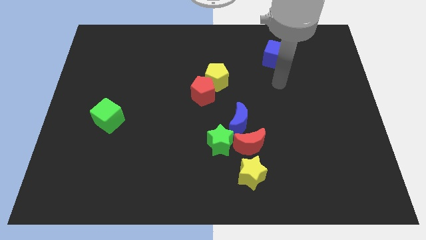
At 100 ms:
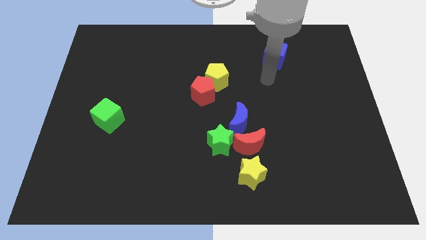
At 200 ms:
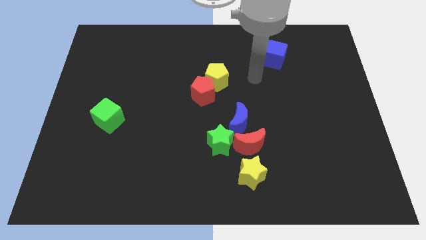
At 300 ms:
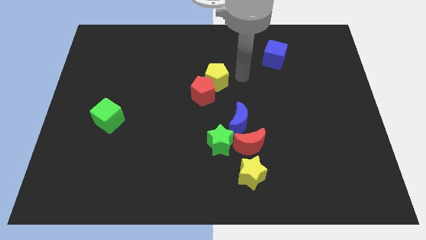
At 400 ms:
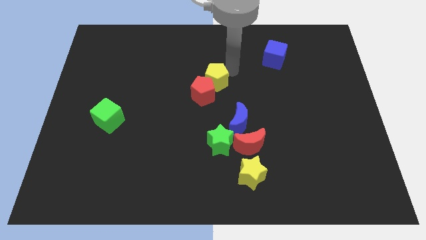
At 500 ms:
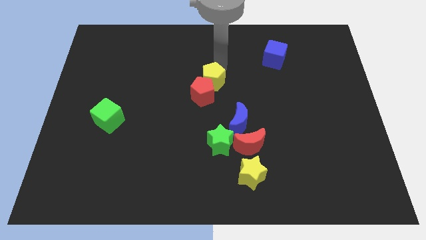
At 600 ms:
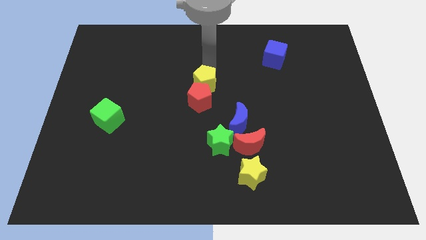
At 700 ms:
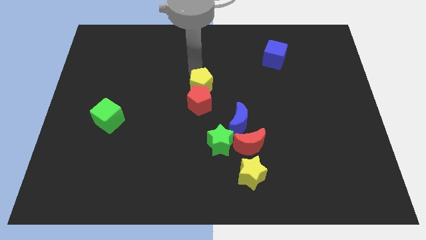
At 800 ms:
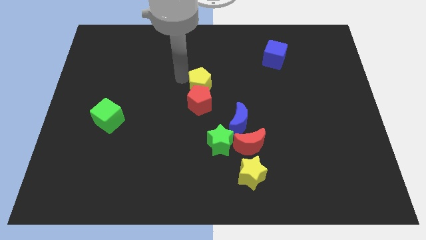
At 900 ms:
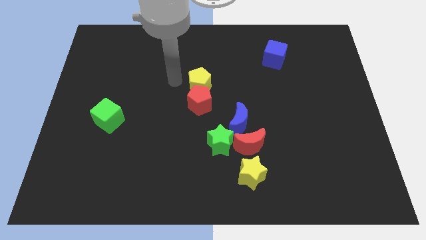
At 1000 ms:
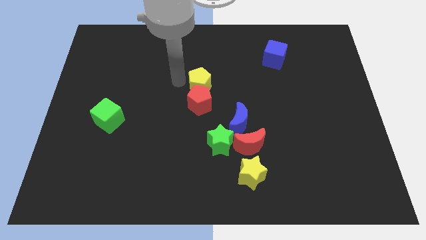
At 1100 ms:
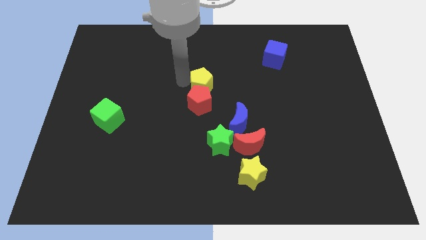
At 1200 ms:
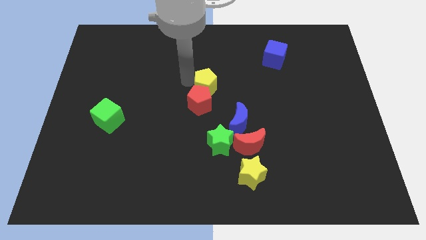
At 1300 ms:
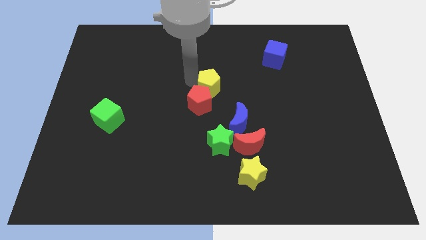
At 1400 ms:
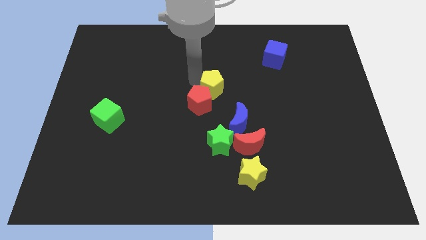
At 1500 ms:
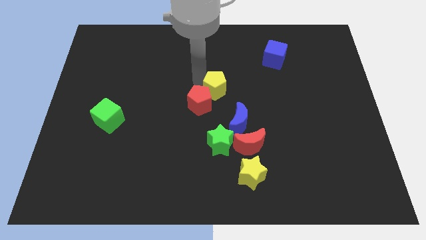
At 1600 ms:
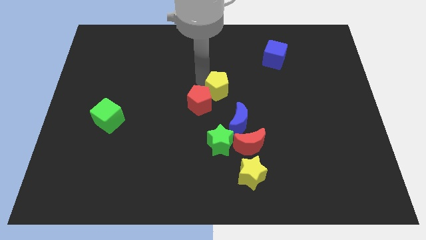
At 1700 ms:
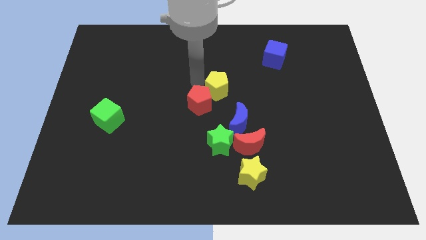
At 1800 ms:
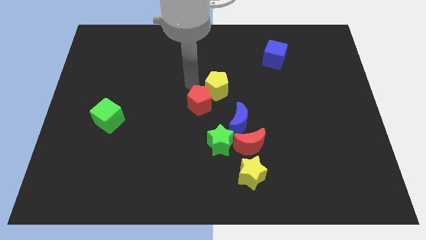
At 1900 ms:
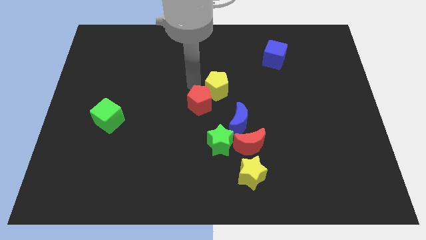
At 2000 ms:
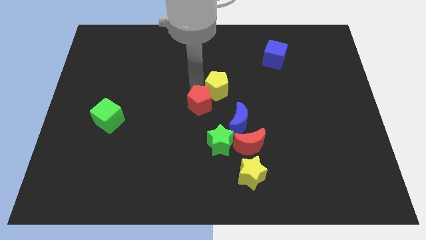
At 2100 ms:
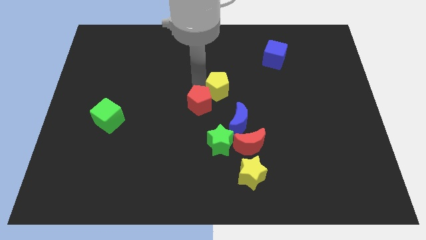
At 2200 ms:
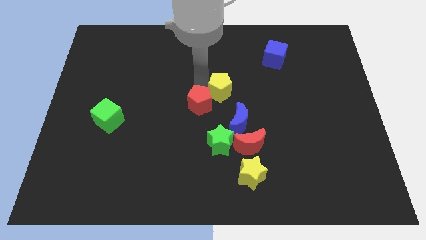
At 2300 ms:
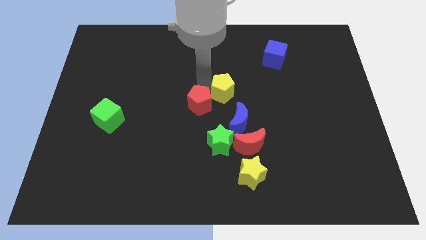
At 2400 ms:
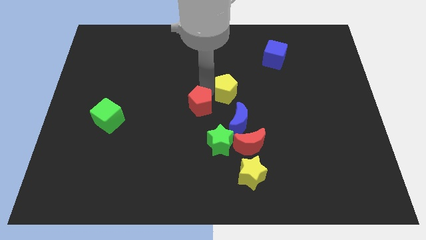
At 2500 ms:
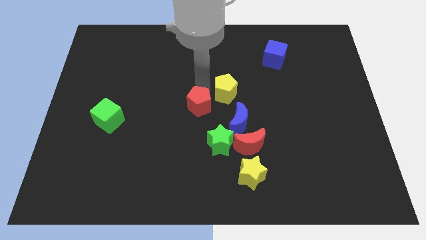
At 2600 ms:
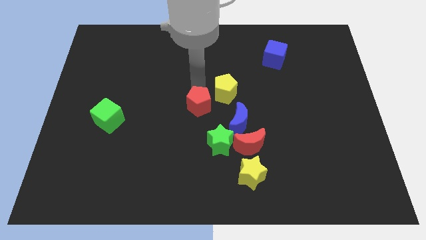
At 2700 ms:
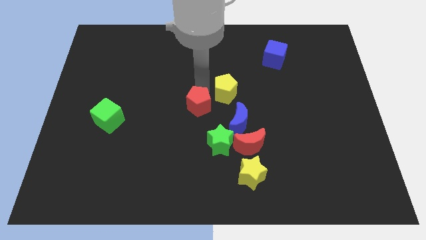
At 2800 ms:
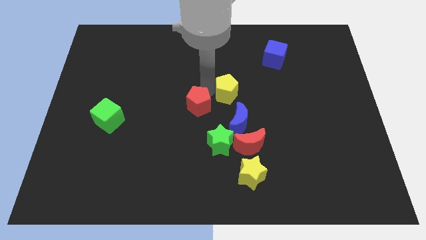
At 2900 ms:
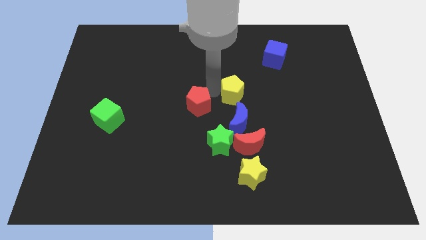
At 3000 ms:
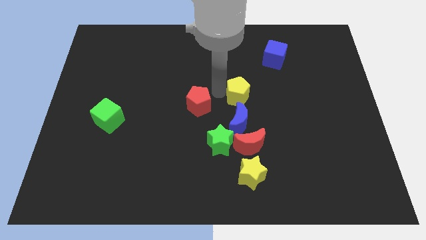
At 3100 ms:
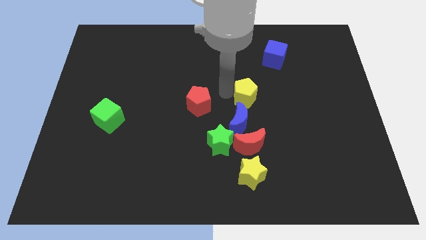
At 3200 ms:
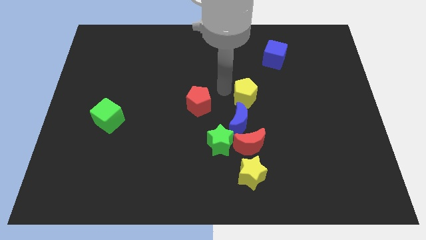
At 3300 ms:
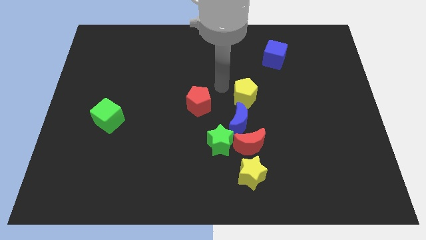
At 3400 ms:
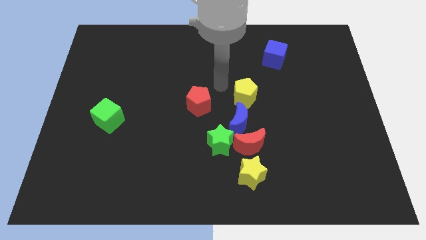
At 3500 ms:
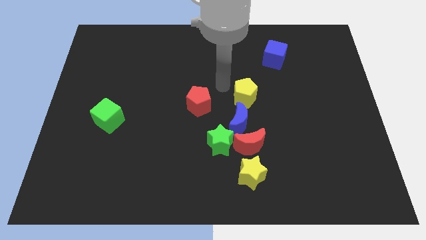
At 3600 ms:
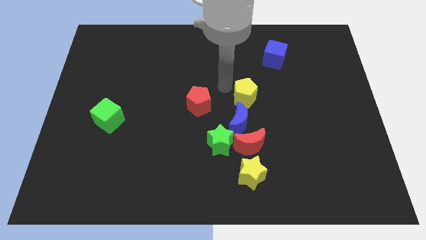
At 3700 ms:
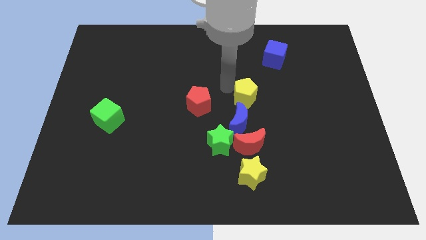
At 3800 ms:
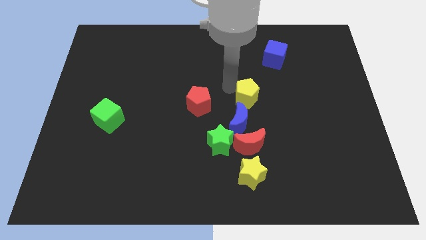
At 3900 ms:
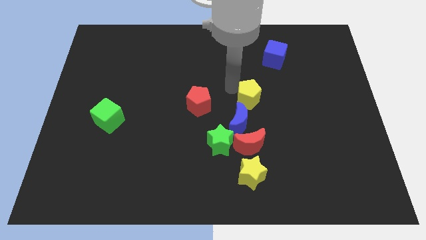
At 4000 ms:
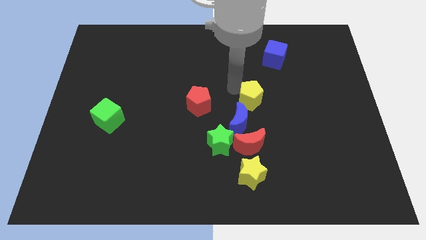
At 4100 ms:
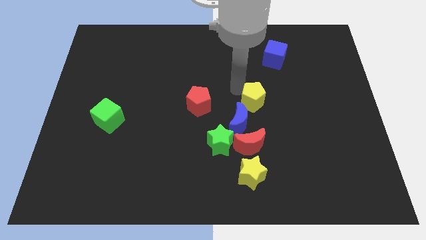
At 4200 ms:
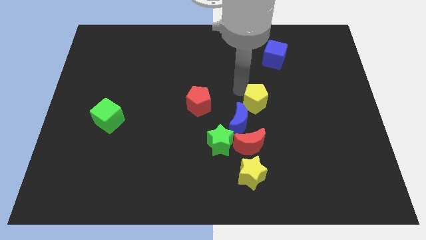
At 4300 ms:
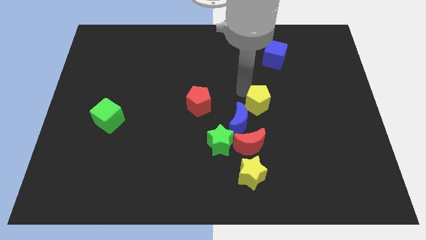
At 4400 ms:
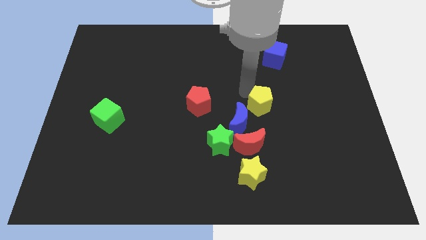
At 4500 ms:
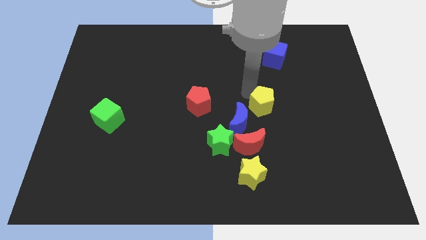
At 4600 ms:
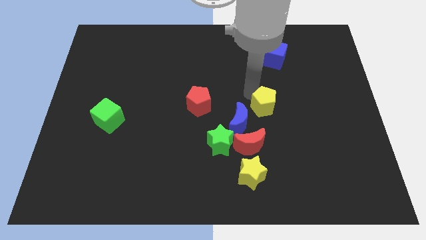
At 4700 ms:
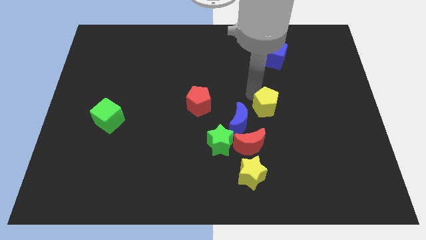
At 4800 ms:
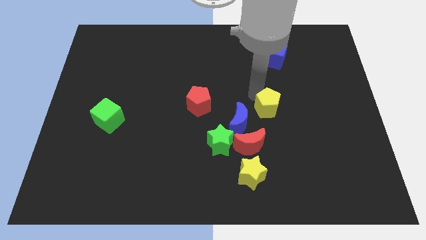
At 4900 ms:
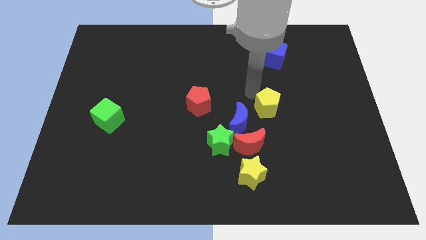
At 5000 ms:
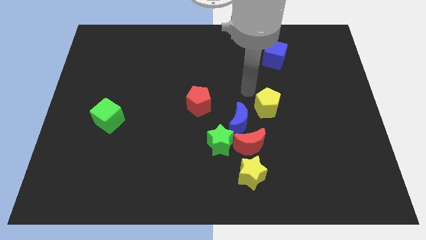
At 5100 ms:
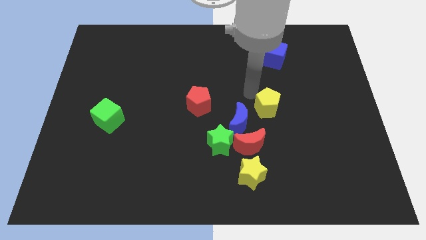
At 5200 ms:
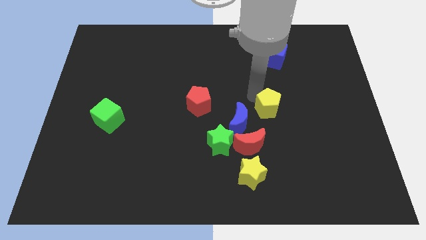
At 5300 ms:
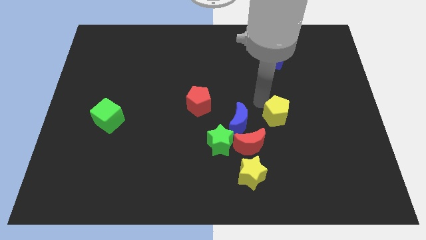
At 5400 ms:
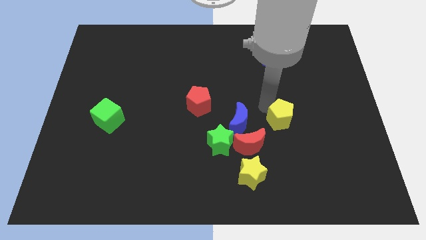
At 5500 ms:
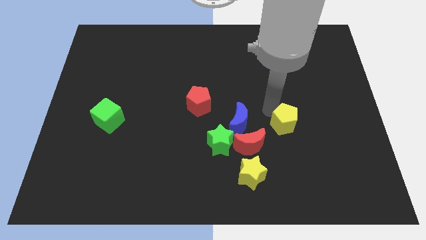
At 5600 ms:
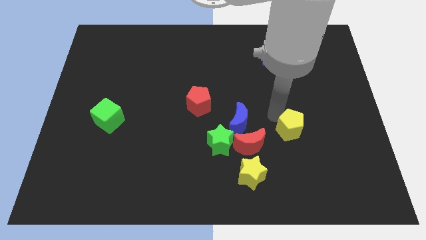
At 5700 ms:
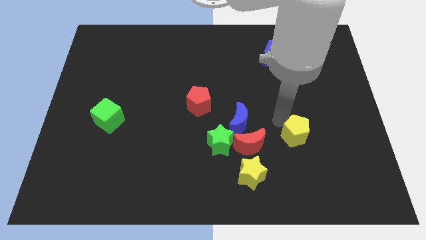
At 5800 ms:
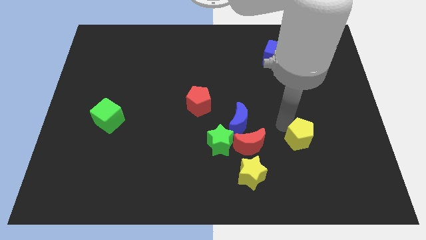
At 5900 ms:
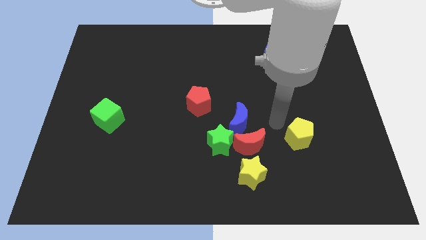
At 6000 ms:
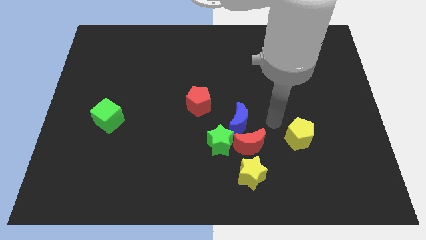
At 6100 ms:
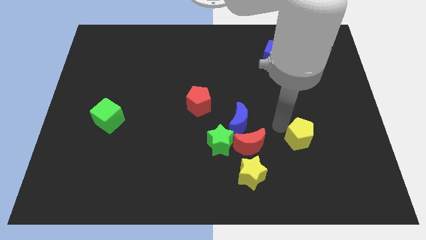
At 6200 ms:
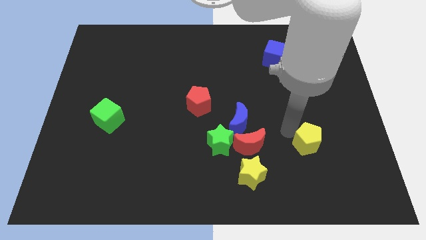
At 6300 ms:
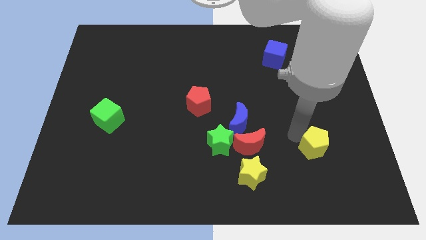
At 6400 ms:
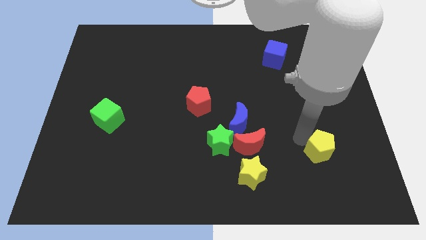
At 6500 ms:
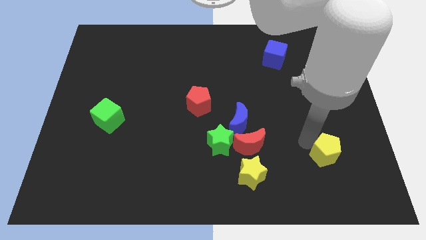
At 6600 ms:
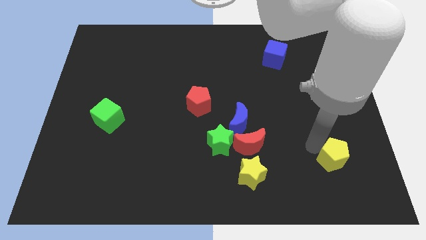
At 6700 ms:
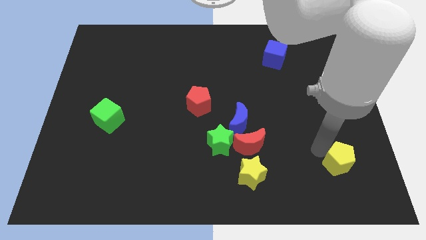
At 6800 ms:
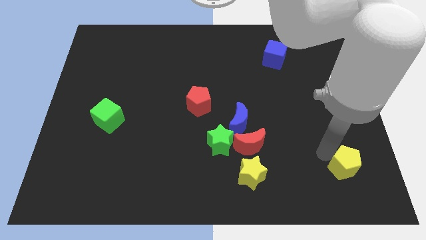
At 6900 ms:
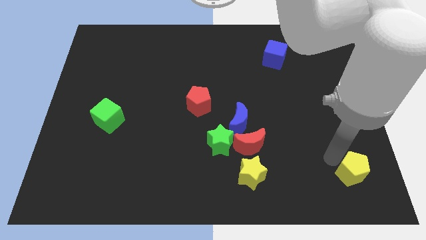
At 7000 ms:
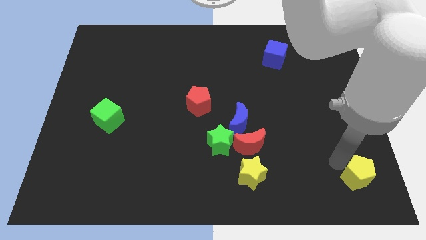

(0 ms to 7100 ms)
put the yellow pentagon to the lower right corner

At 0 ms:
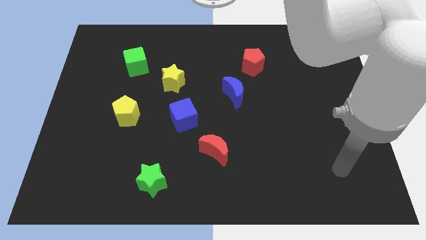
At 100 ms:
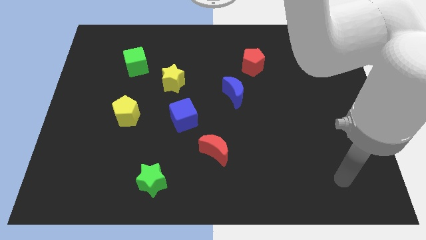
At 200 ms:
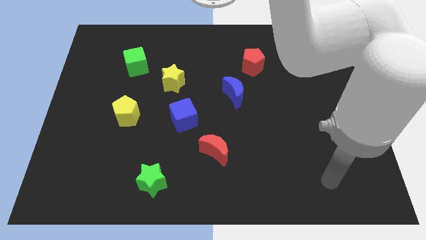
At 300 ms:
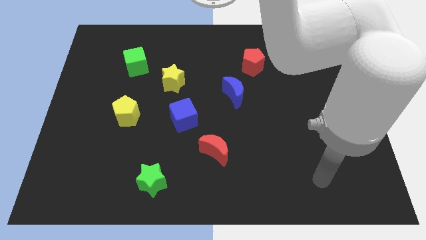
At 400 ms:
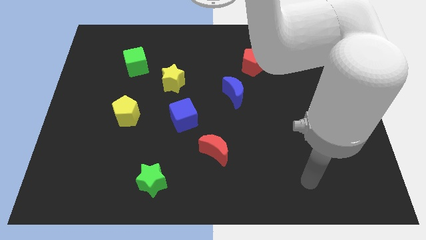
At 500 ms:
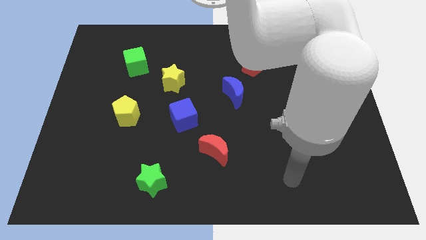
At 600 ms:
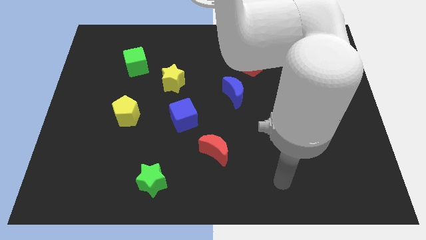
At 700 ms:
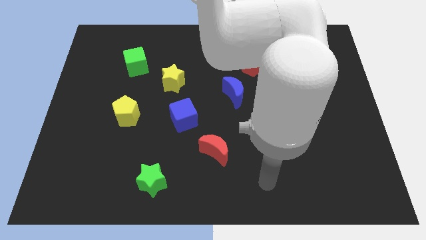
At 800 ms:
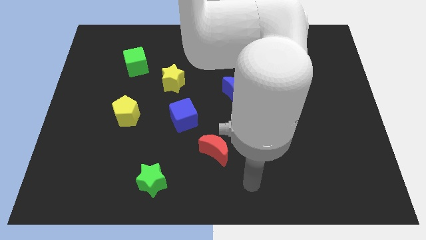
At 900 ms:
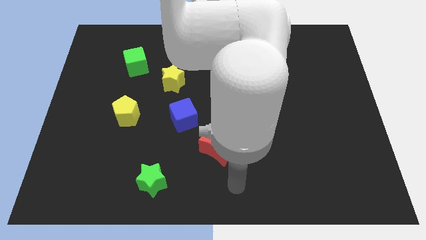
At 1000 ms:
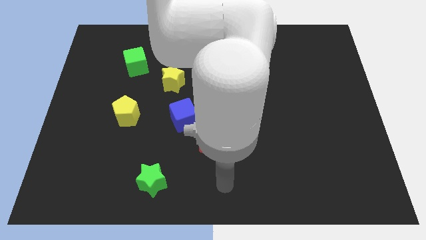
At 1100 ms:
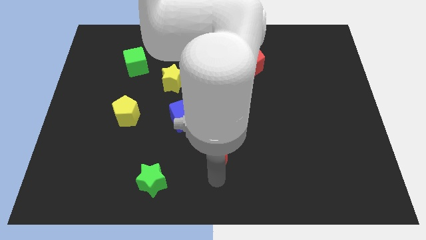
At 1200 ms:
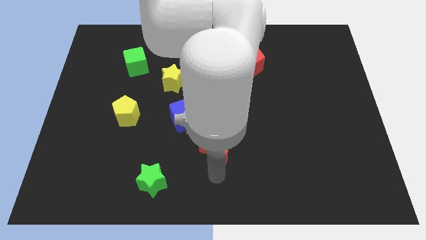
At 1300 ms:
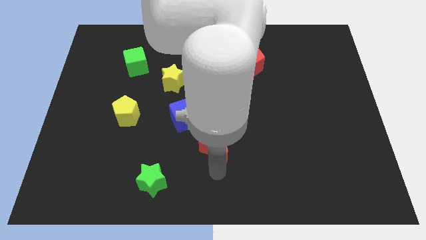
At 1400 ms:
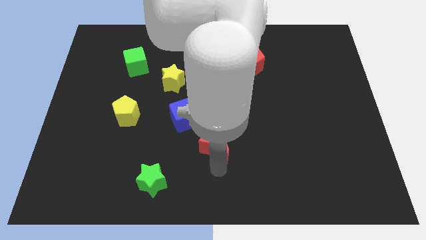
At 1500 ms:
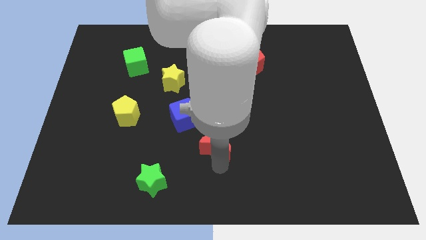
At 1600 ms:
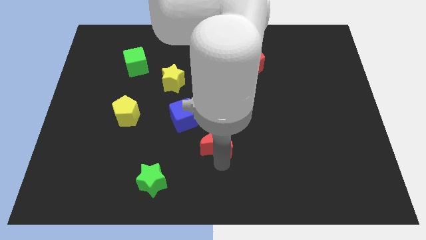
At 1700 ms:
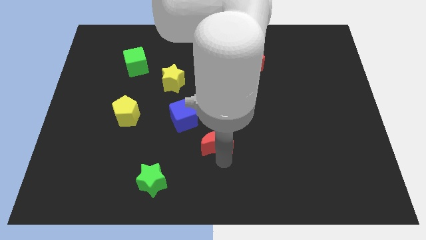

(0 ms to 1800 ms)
move the red moon to the middle of the board
